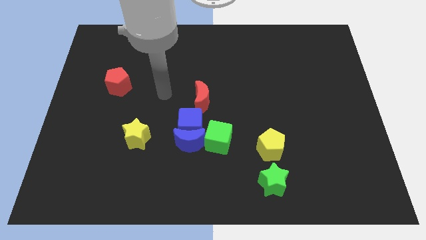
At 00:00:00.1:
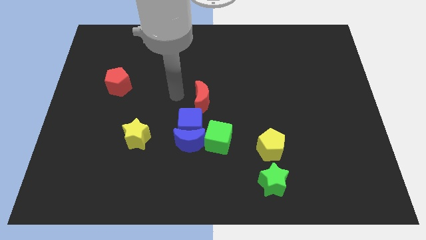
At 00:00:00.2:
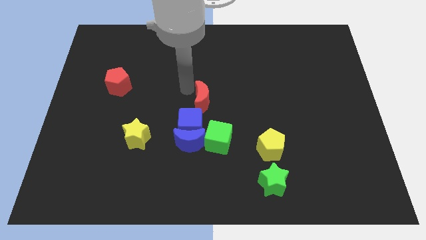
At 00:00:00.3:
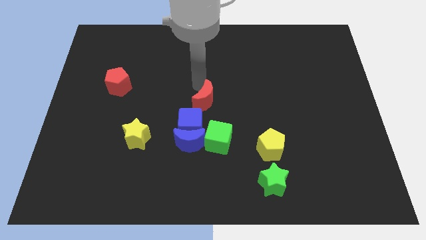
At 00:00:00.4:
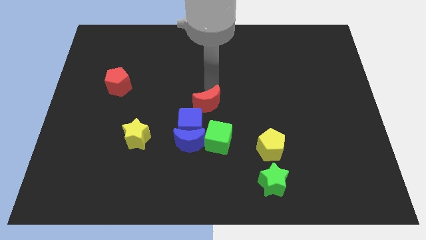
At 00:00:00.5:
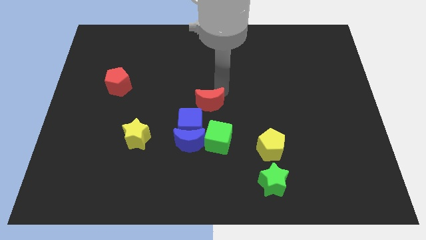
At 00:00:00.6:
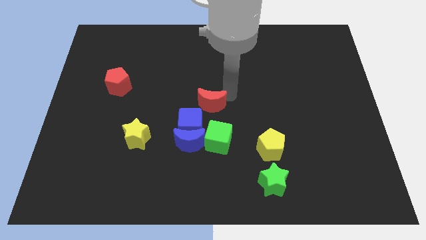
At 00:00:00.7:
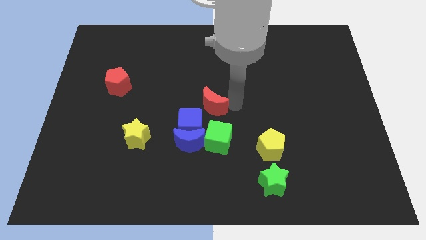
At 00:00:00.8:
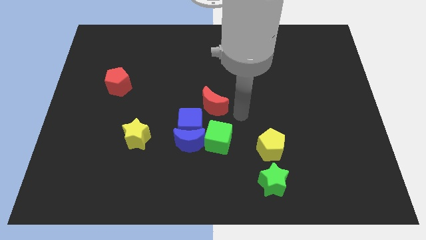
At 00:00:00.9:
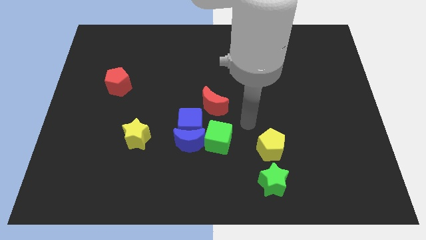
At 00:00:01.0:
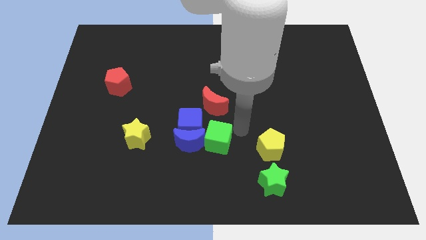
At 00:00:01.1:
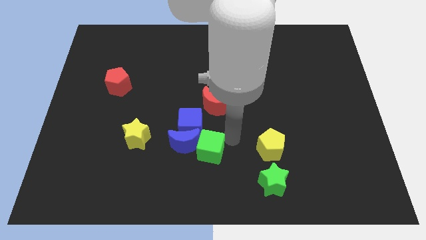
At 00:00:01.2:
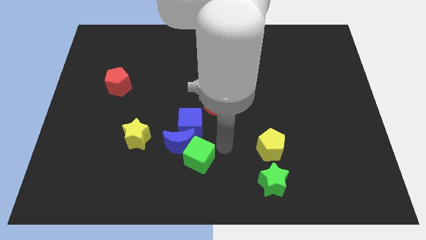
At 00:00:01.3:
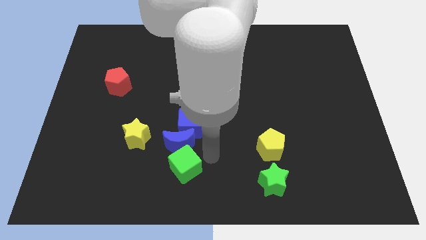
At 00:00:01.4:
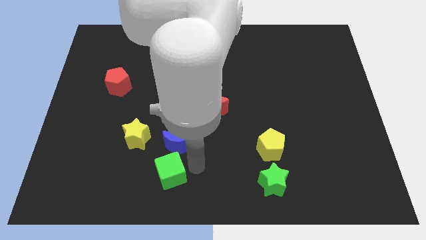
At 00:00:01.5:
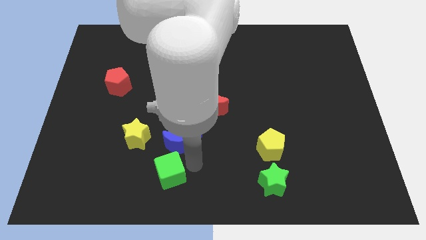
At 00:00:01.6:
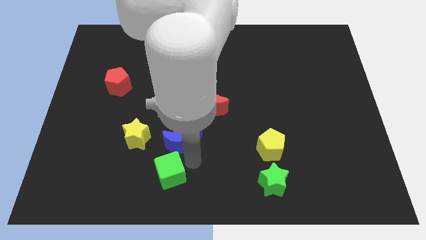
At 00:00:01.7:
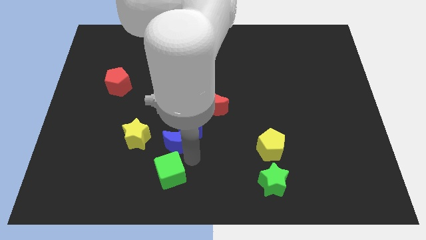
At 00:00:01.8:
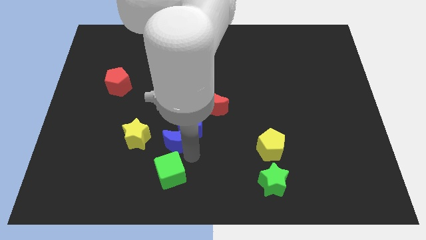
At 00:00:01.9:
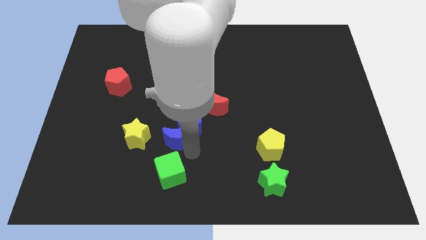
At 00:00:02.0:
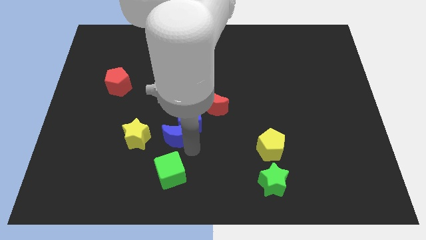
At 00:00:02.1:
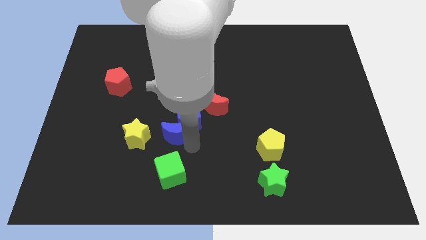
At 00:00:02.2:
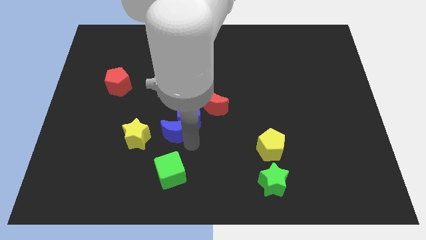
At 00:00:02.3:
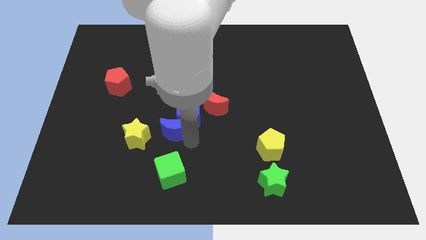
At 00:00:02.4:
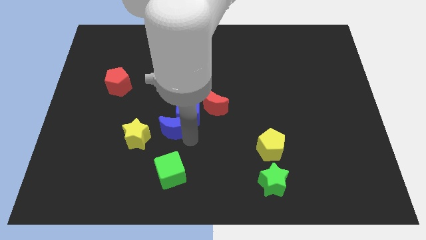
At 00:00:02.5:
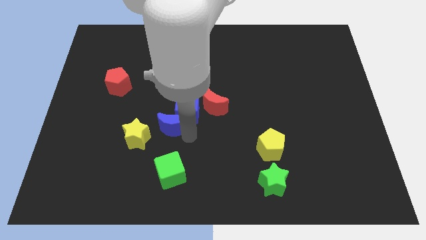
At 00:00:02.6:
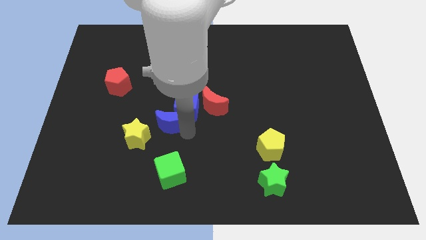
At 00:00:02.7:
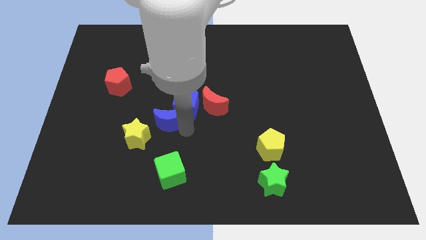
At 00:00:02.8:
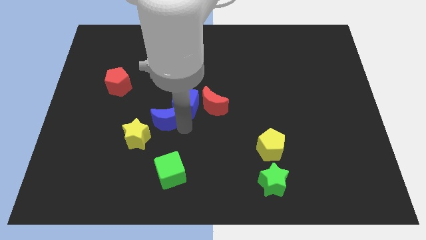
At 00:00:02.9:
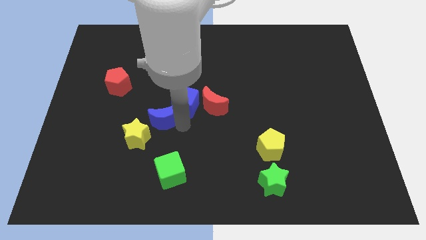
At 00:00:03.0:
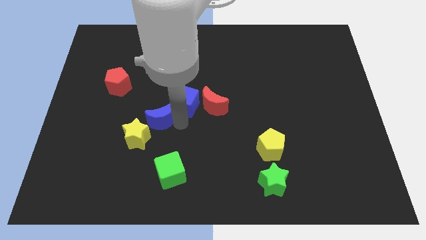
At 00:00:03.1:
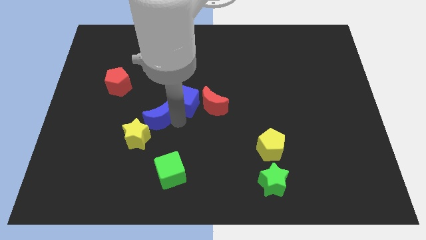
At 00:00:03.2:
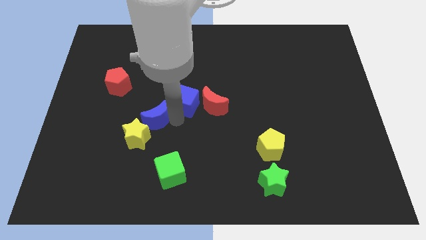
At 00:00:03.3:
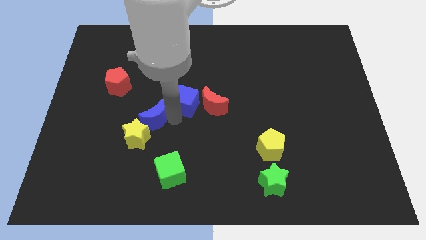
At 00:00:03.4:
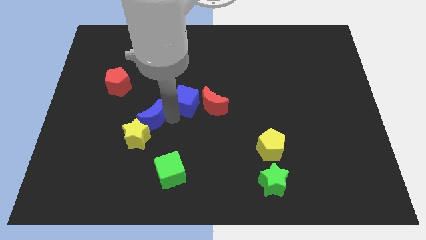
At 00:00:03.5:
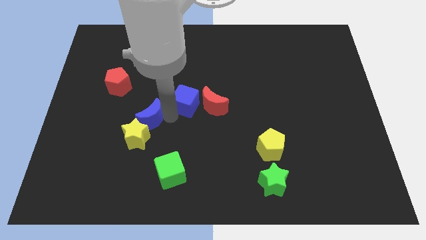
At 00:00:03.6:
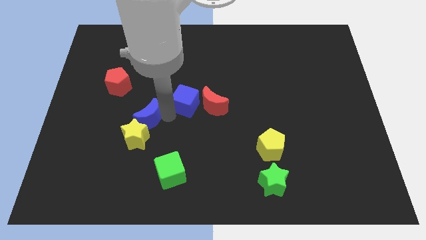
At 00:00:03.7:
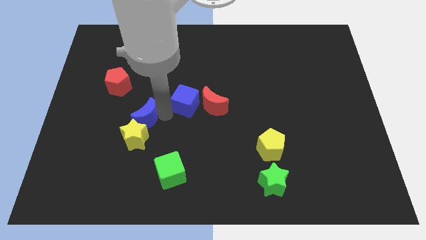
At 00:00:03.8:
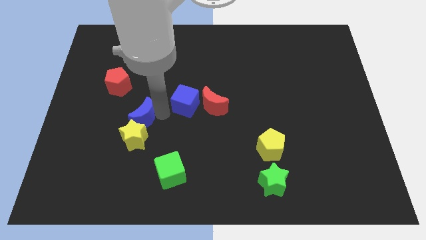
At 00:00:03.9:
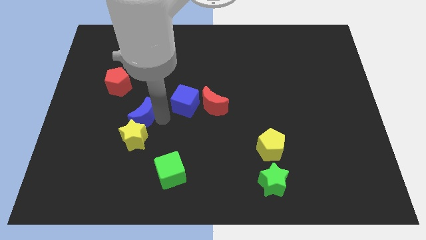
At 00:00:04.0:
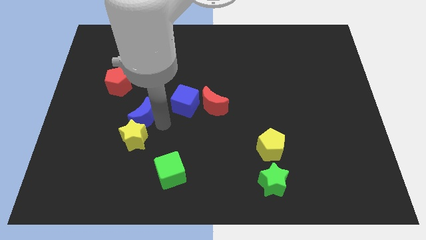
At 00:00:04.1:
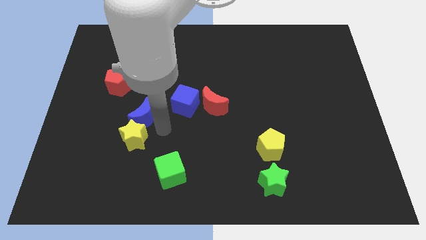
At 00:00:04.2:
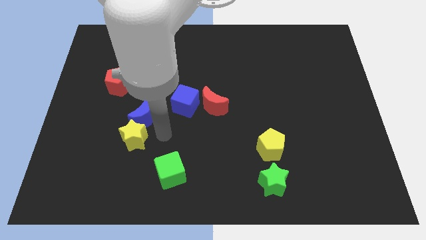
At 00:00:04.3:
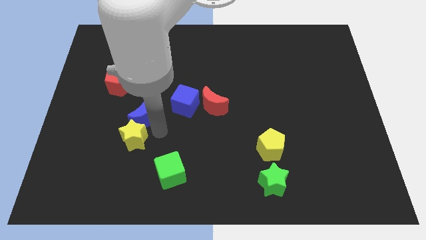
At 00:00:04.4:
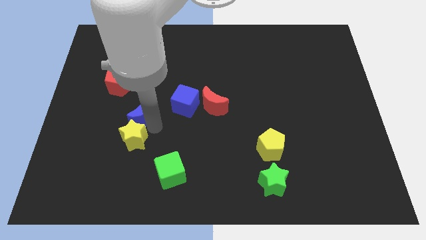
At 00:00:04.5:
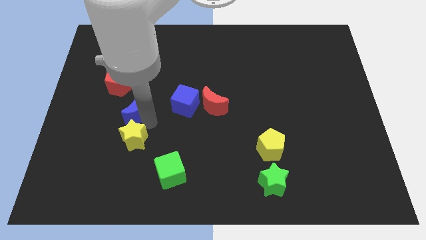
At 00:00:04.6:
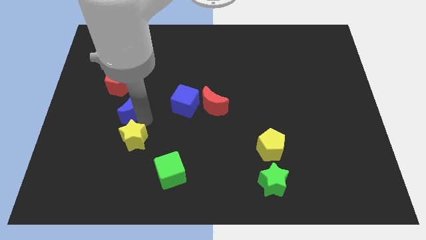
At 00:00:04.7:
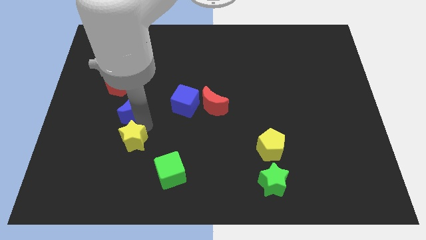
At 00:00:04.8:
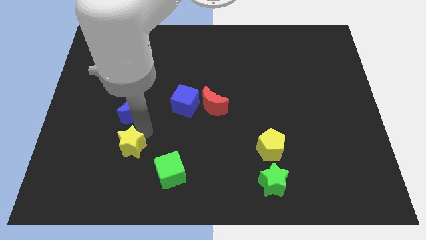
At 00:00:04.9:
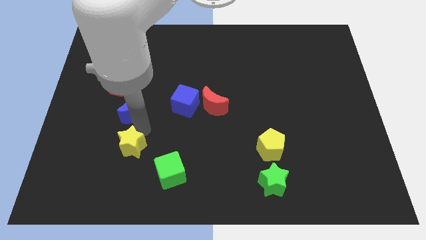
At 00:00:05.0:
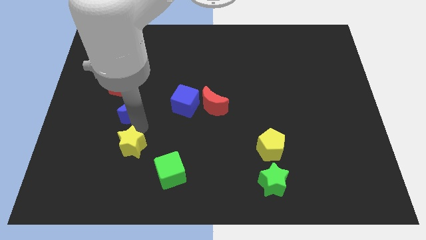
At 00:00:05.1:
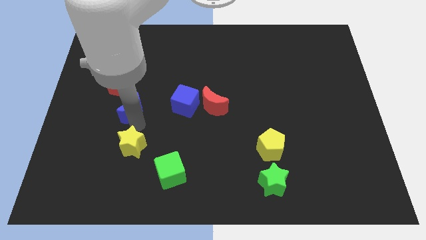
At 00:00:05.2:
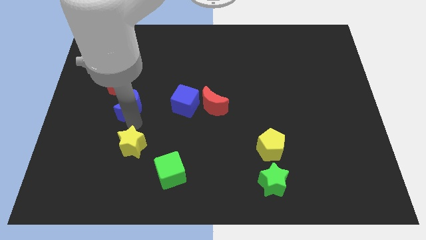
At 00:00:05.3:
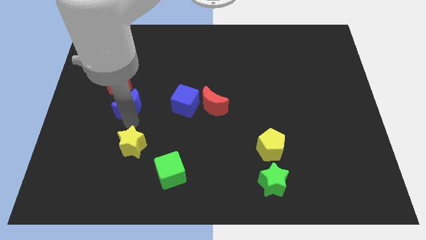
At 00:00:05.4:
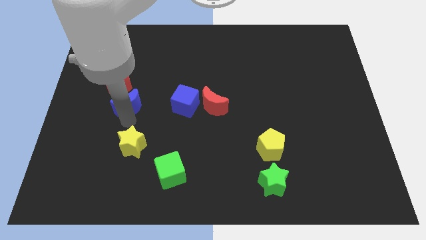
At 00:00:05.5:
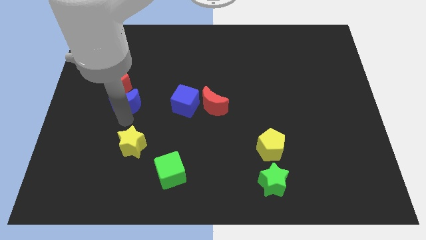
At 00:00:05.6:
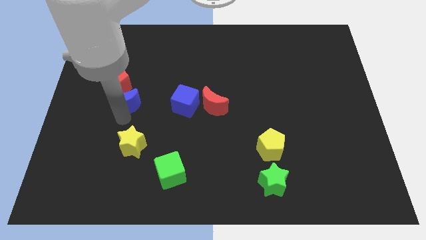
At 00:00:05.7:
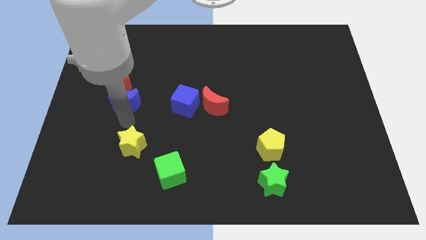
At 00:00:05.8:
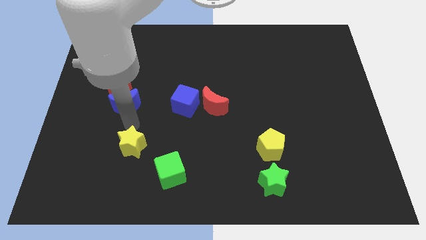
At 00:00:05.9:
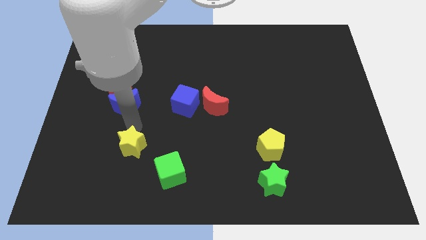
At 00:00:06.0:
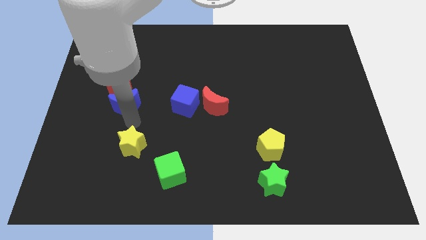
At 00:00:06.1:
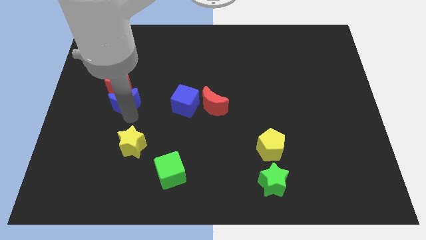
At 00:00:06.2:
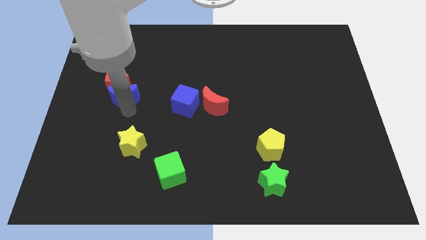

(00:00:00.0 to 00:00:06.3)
push the blue moon to the red pentagon
